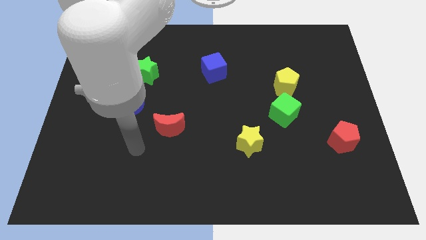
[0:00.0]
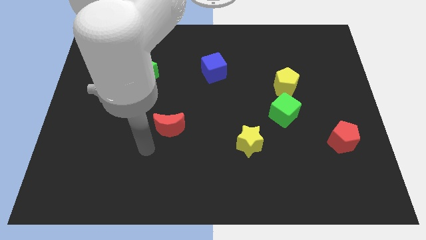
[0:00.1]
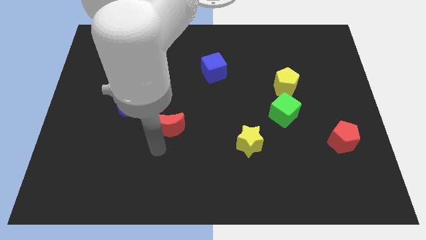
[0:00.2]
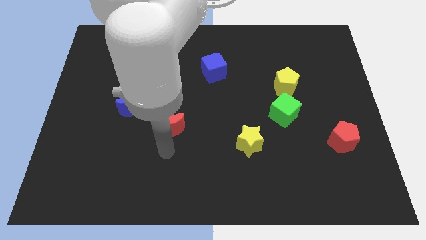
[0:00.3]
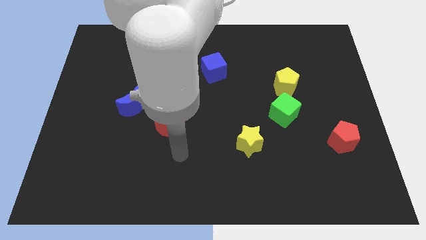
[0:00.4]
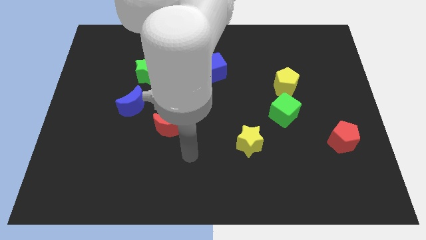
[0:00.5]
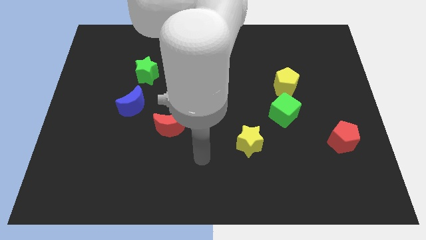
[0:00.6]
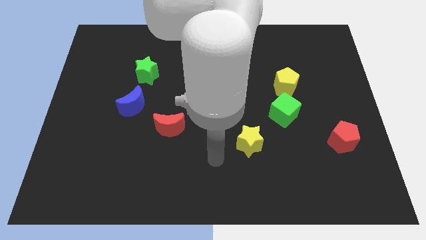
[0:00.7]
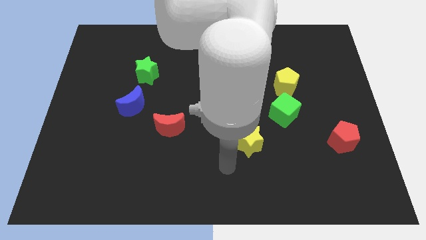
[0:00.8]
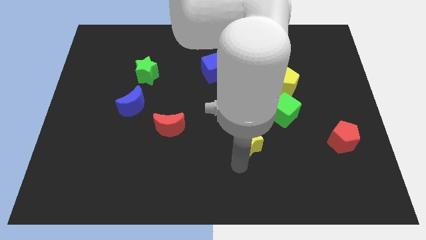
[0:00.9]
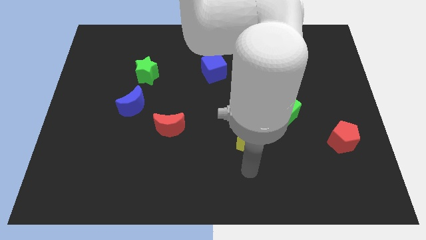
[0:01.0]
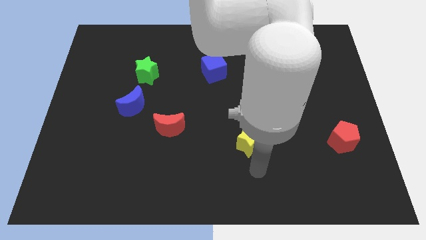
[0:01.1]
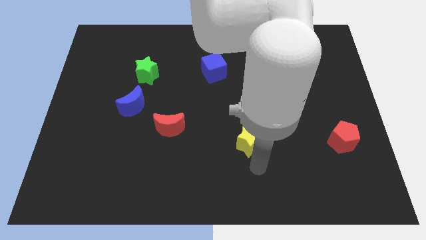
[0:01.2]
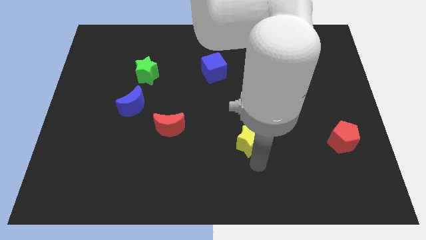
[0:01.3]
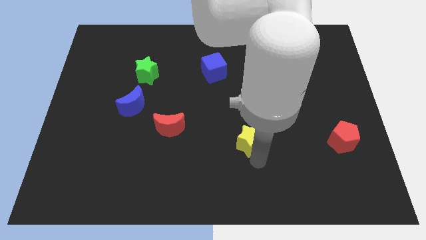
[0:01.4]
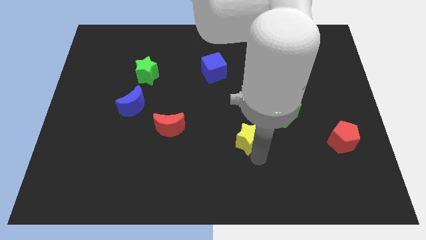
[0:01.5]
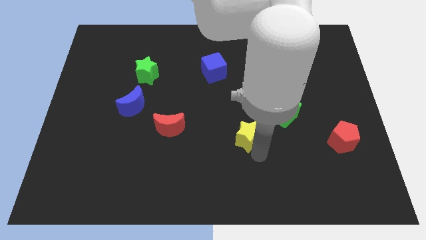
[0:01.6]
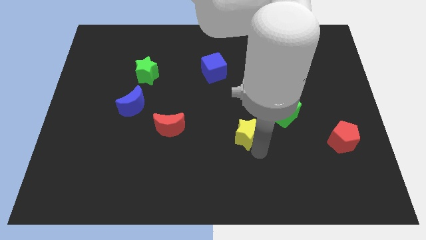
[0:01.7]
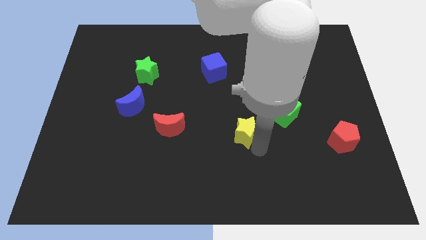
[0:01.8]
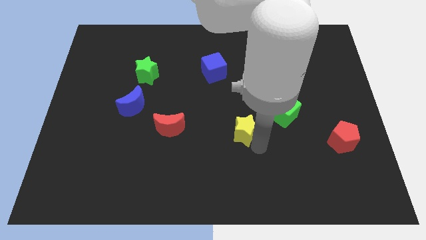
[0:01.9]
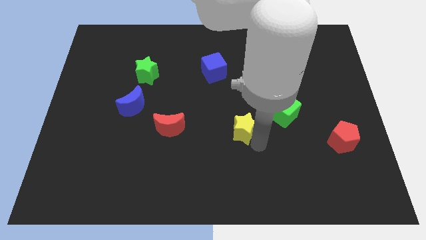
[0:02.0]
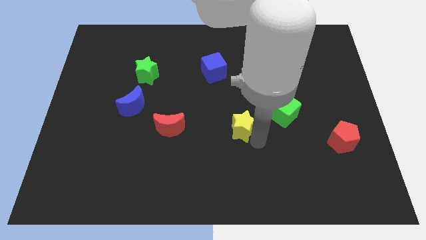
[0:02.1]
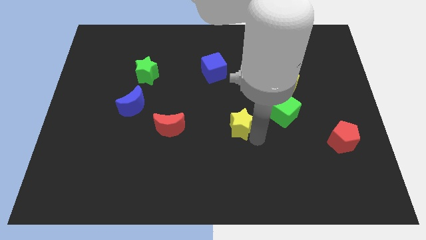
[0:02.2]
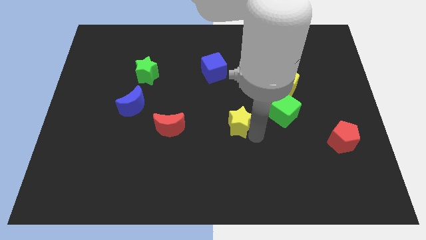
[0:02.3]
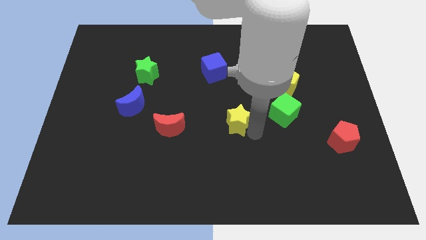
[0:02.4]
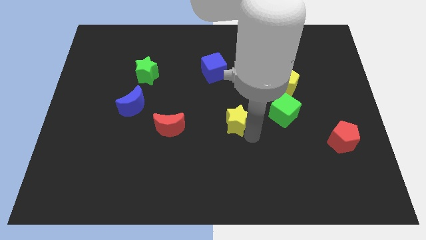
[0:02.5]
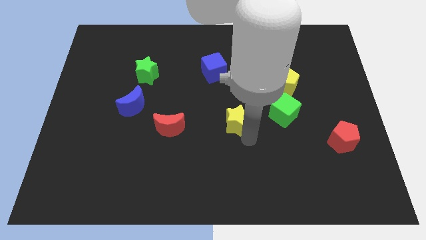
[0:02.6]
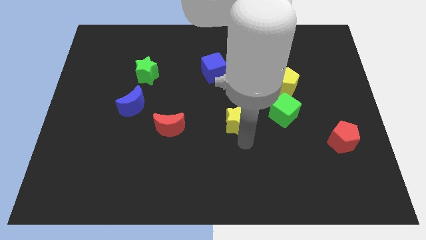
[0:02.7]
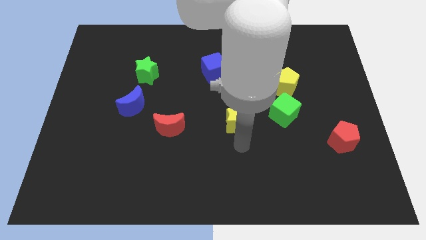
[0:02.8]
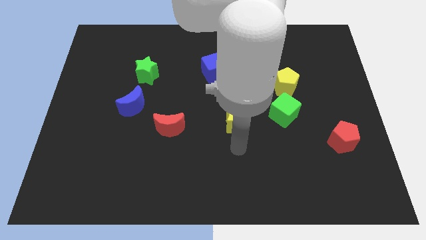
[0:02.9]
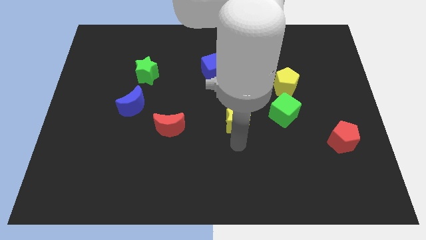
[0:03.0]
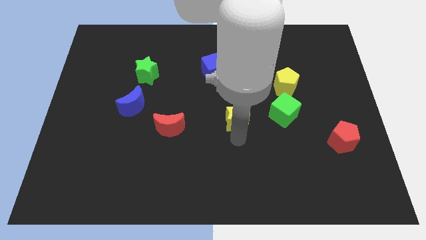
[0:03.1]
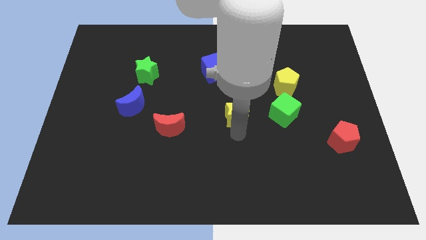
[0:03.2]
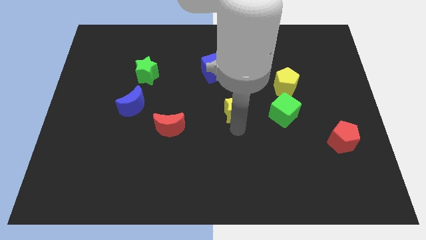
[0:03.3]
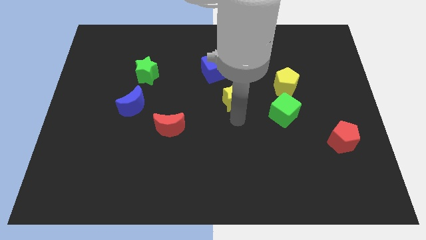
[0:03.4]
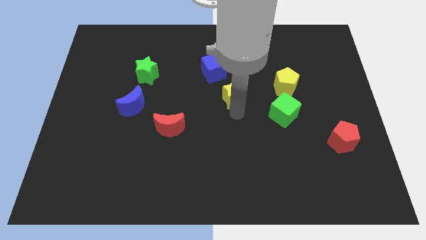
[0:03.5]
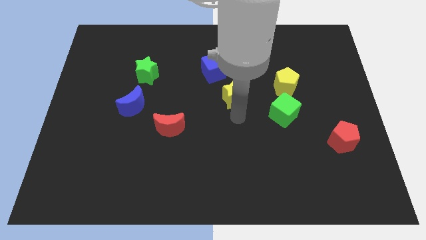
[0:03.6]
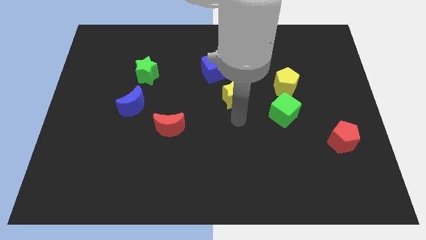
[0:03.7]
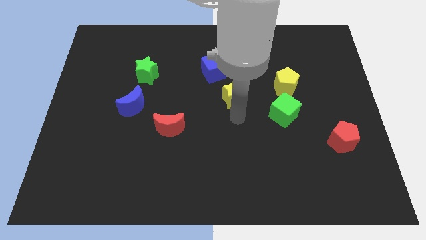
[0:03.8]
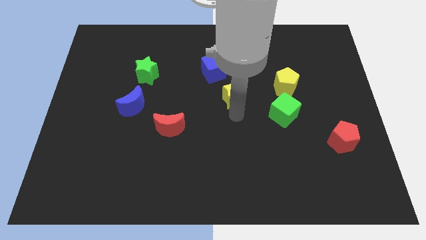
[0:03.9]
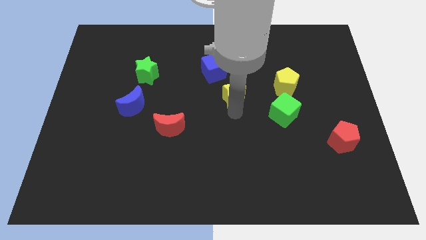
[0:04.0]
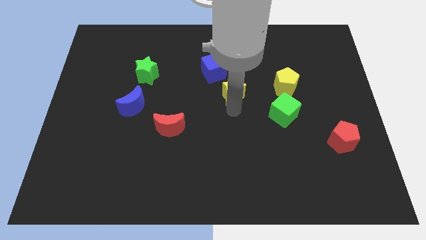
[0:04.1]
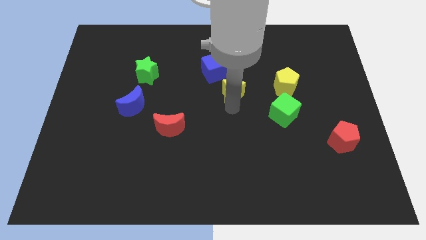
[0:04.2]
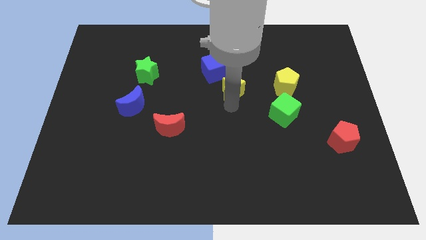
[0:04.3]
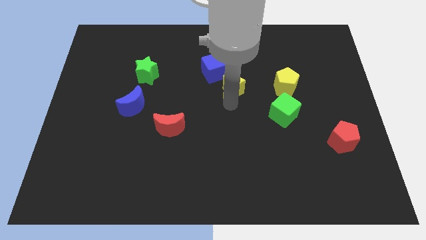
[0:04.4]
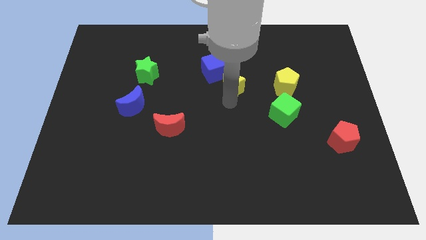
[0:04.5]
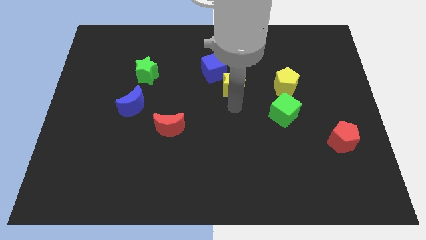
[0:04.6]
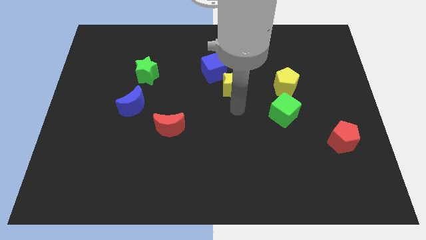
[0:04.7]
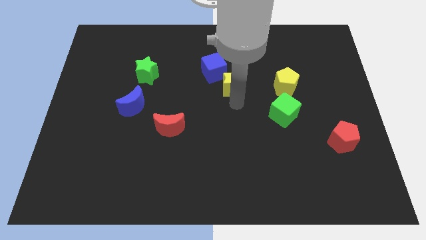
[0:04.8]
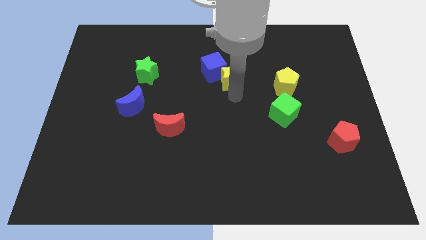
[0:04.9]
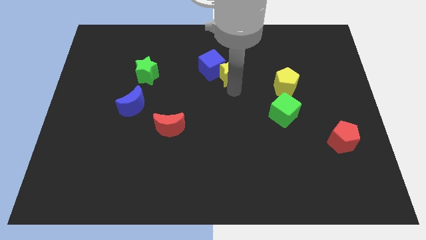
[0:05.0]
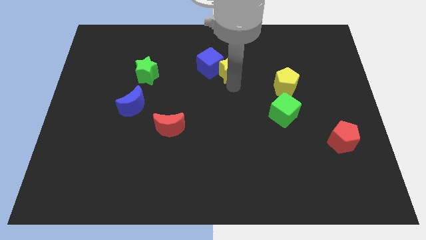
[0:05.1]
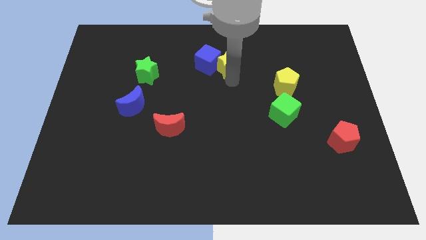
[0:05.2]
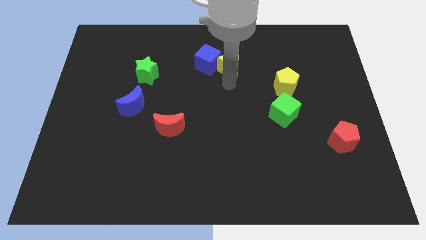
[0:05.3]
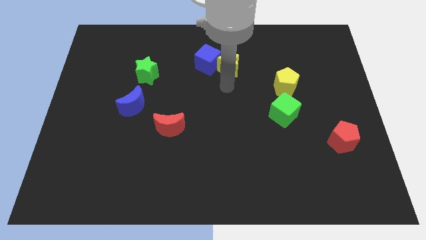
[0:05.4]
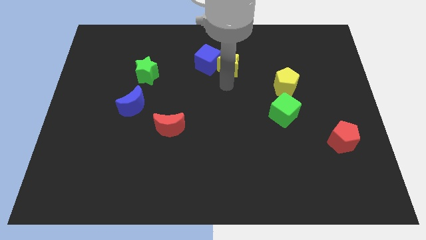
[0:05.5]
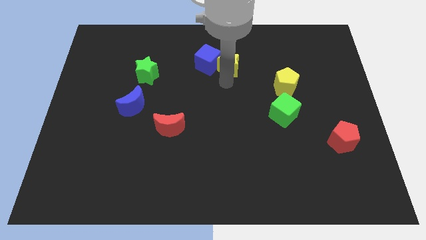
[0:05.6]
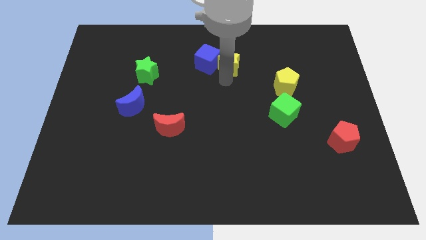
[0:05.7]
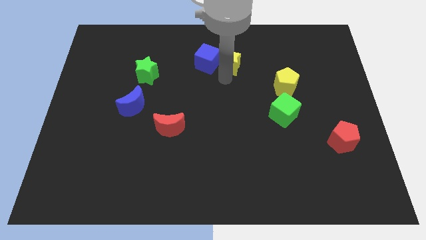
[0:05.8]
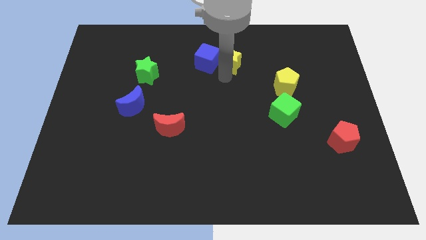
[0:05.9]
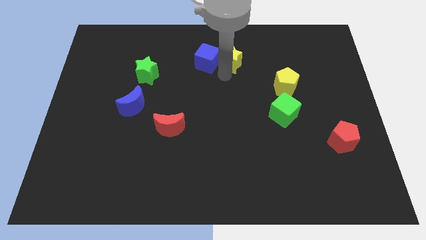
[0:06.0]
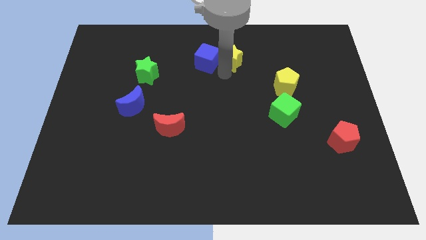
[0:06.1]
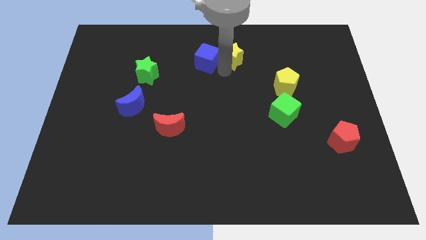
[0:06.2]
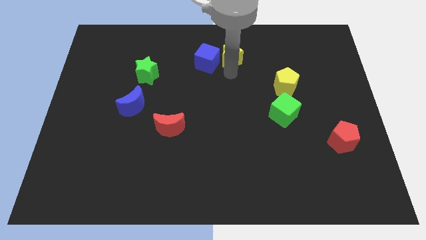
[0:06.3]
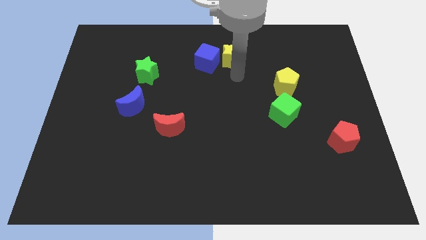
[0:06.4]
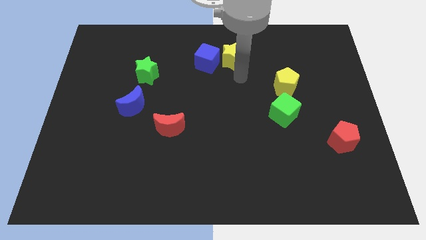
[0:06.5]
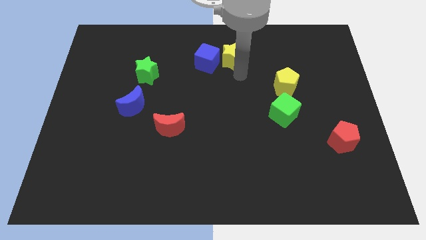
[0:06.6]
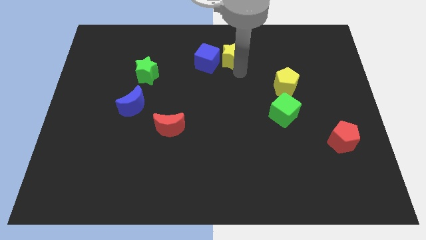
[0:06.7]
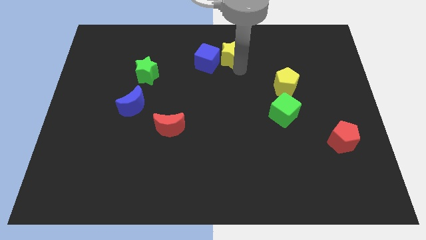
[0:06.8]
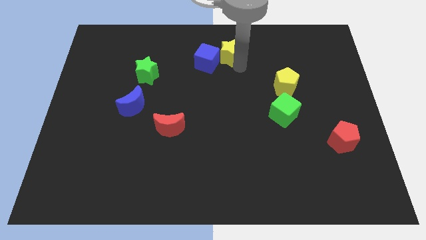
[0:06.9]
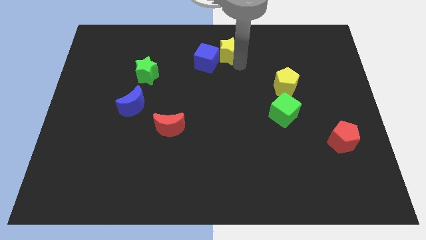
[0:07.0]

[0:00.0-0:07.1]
push the yellow star to the top side

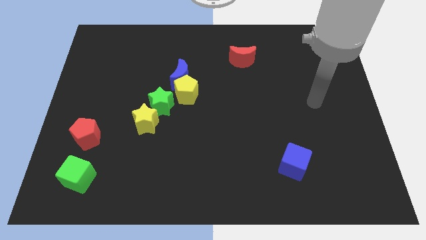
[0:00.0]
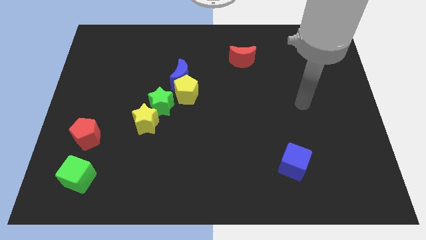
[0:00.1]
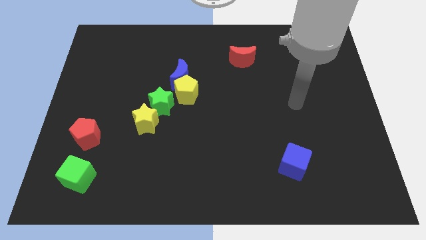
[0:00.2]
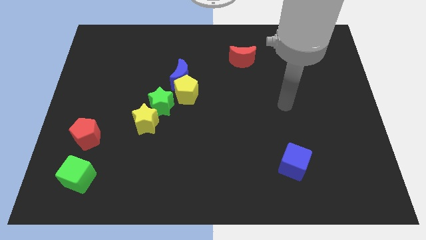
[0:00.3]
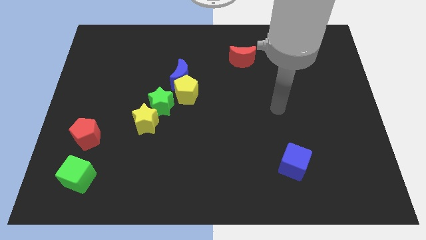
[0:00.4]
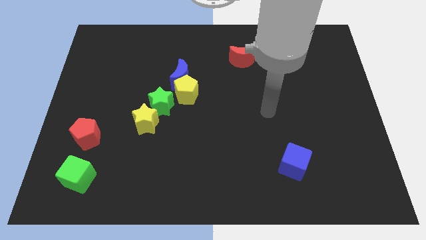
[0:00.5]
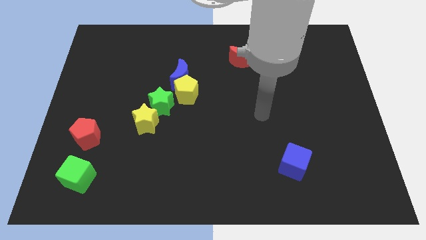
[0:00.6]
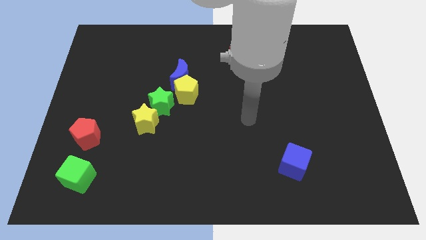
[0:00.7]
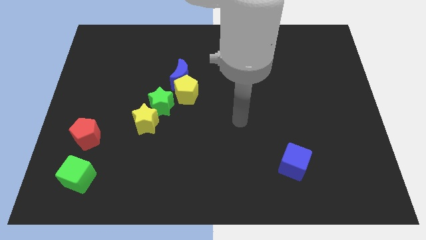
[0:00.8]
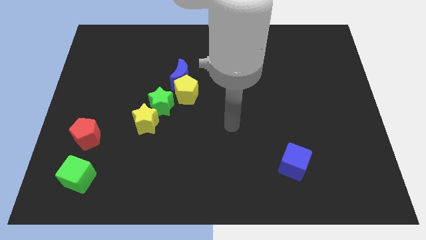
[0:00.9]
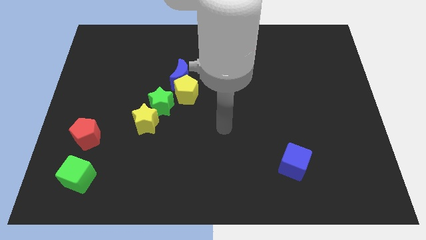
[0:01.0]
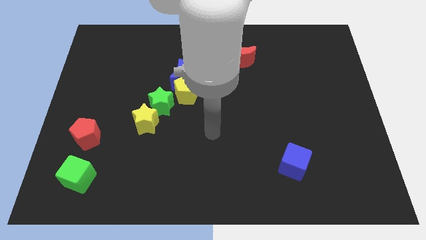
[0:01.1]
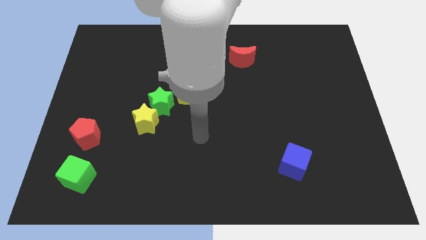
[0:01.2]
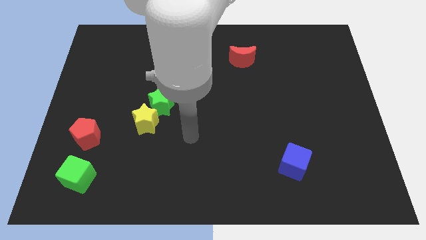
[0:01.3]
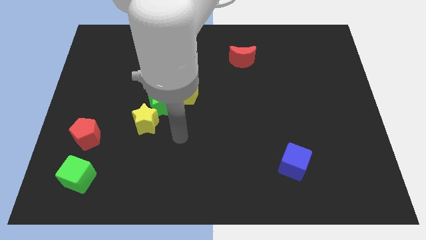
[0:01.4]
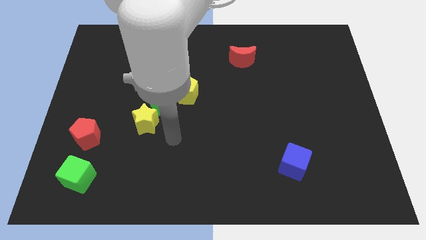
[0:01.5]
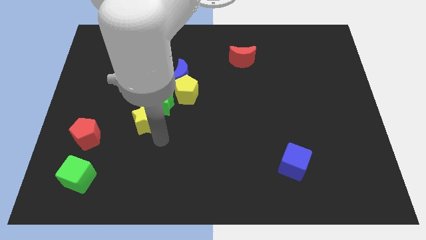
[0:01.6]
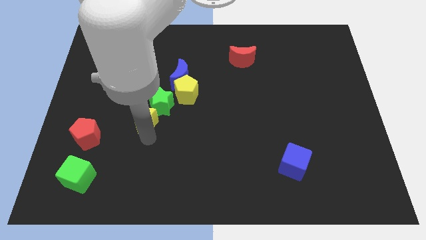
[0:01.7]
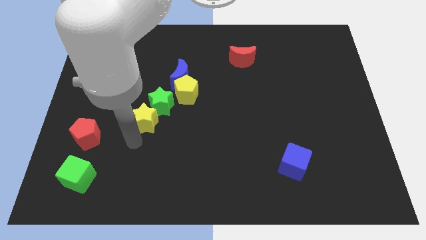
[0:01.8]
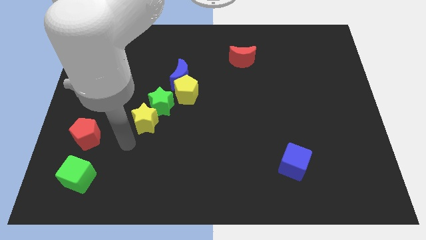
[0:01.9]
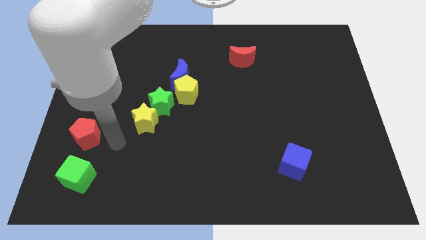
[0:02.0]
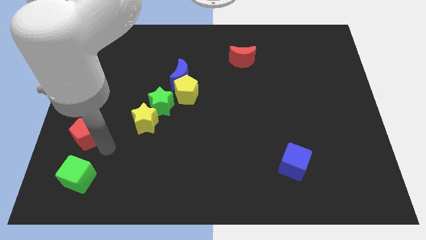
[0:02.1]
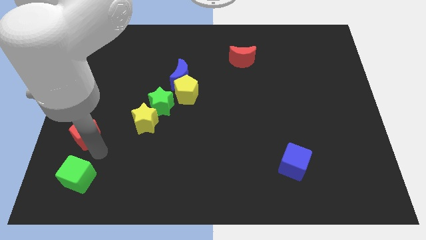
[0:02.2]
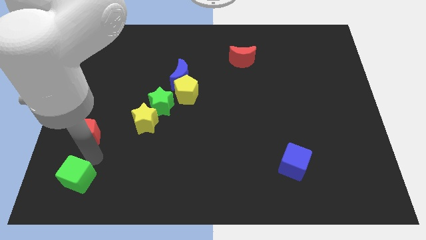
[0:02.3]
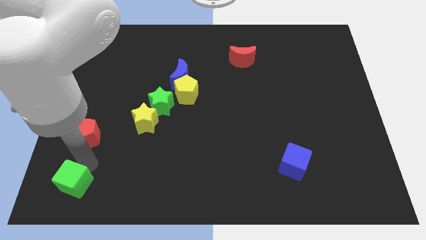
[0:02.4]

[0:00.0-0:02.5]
slide the green cube to the lower left corner
